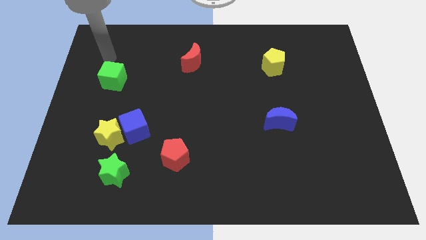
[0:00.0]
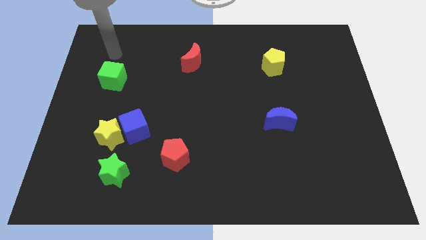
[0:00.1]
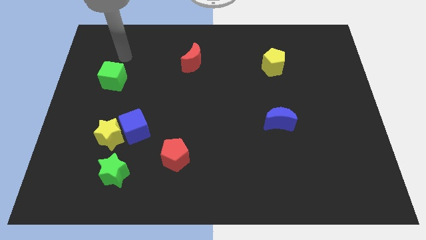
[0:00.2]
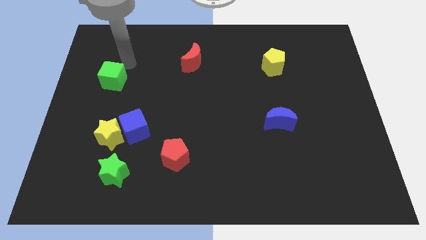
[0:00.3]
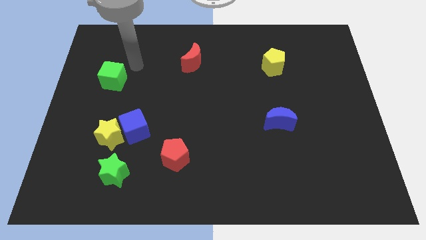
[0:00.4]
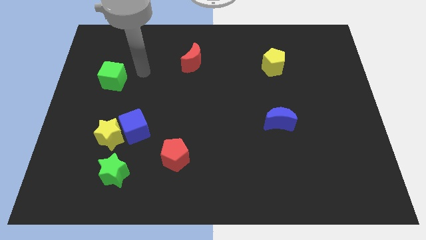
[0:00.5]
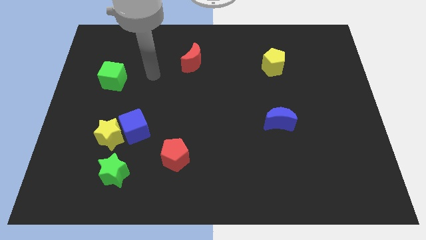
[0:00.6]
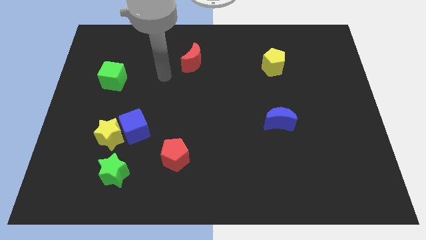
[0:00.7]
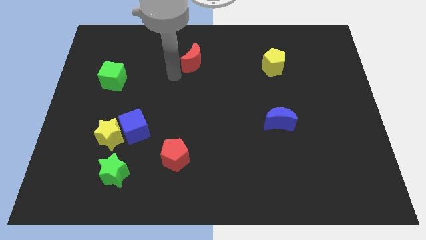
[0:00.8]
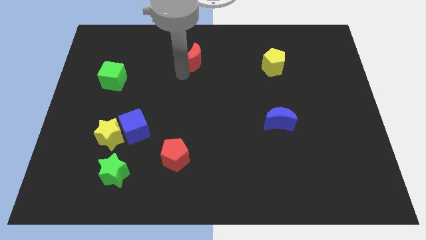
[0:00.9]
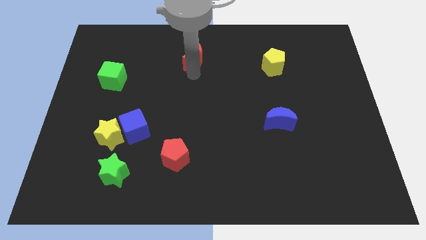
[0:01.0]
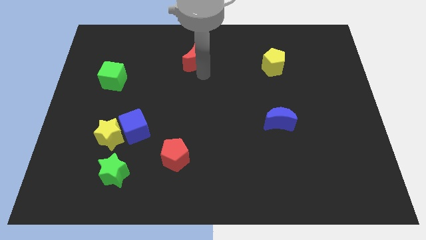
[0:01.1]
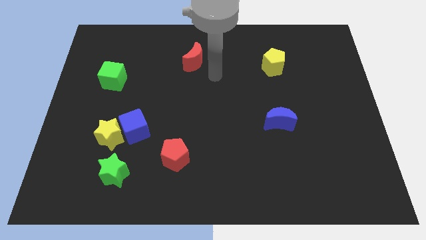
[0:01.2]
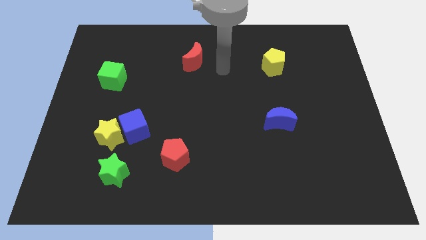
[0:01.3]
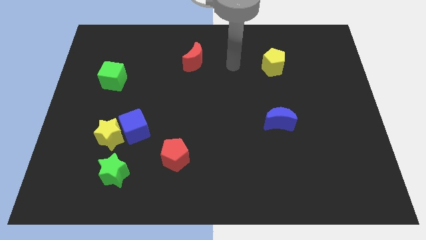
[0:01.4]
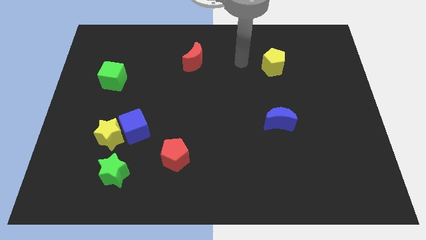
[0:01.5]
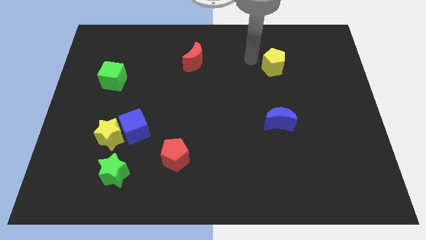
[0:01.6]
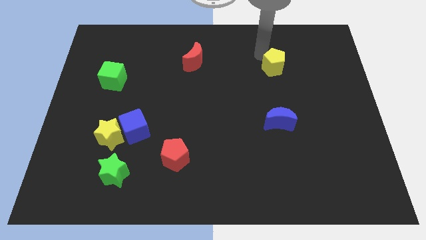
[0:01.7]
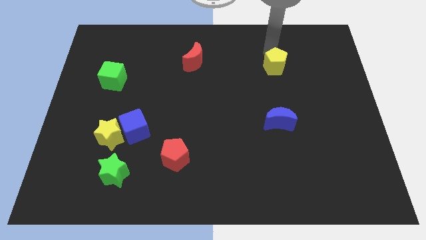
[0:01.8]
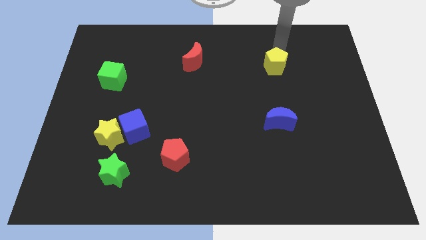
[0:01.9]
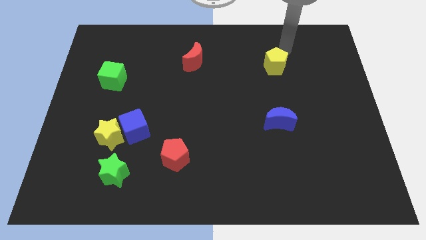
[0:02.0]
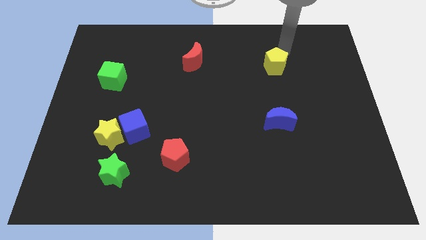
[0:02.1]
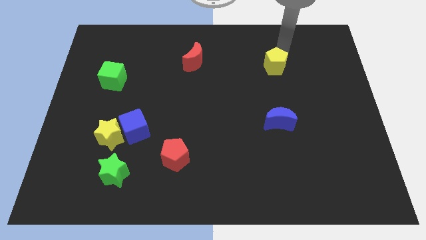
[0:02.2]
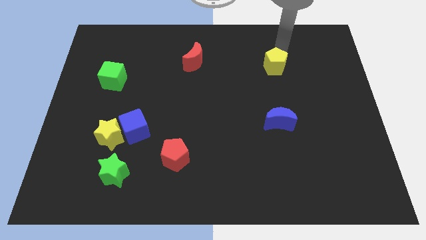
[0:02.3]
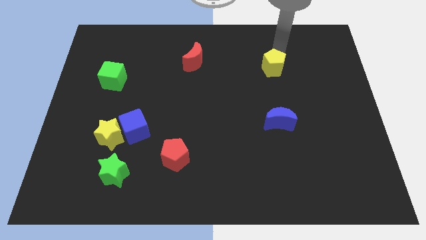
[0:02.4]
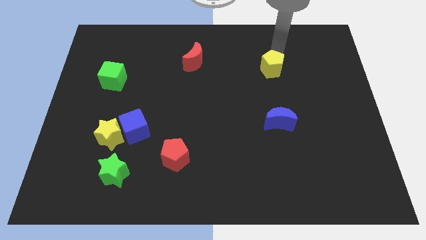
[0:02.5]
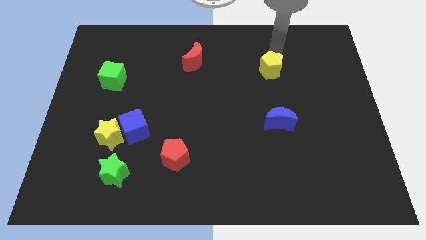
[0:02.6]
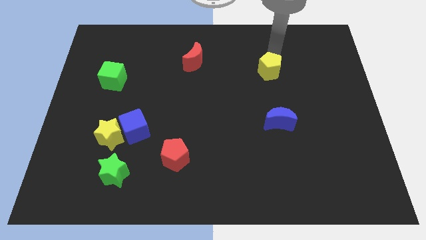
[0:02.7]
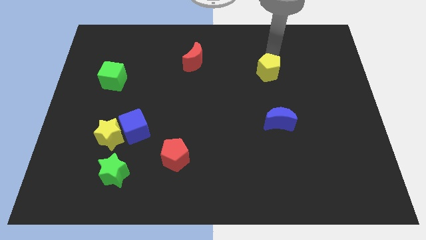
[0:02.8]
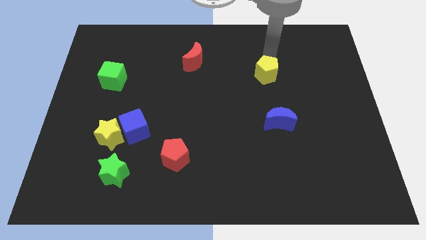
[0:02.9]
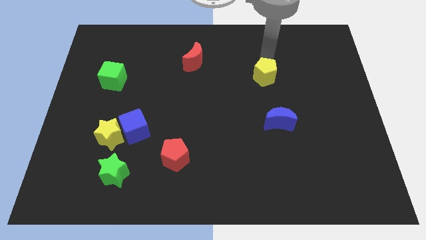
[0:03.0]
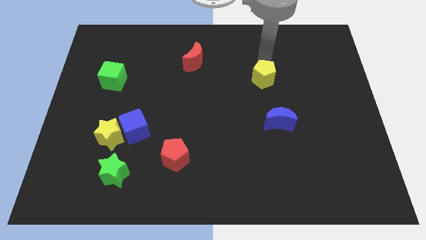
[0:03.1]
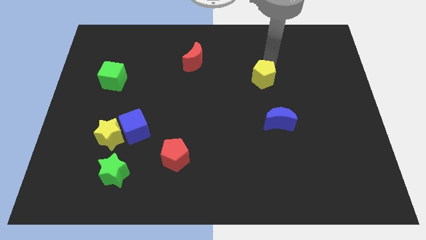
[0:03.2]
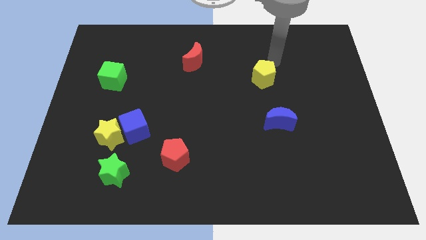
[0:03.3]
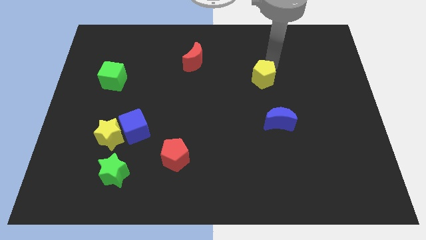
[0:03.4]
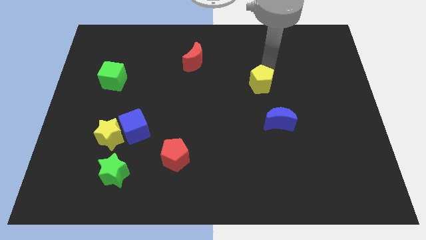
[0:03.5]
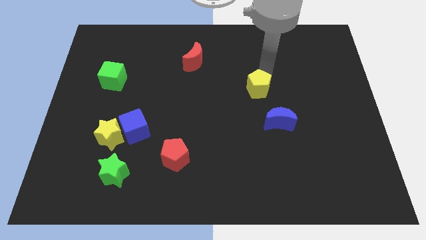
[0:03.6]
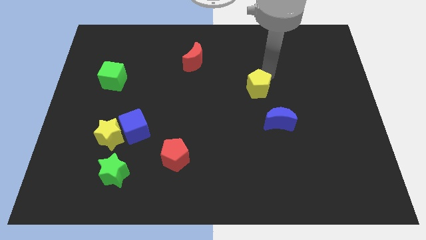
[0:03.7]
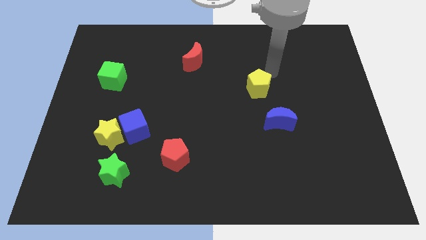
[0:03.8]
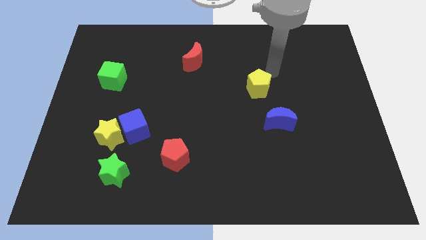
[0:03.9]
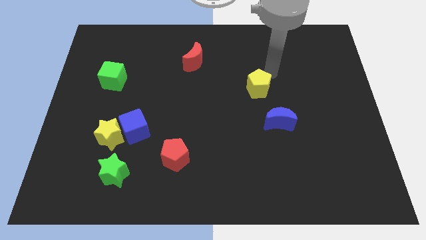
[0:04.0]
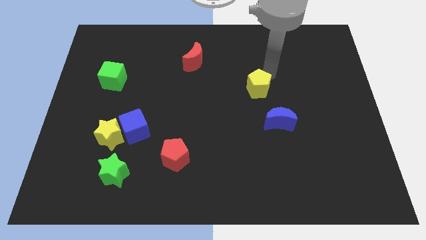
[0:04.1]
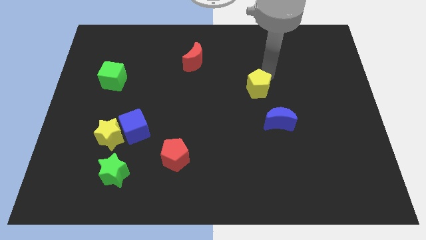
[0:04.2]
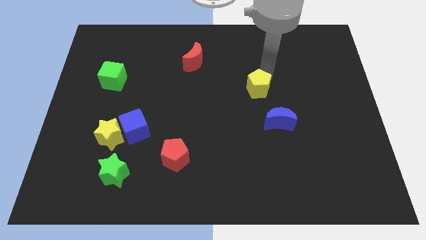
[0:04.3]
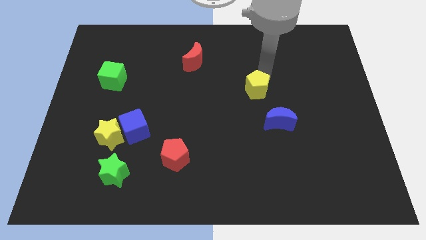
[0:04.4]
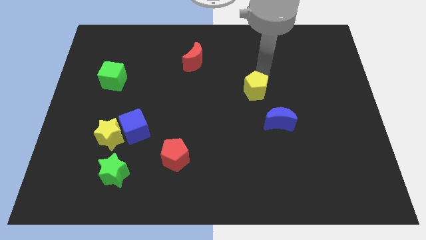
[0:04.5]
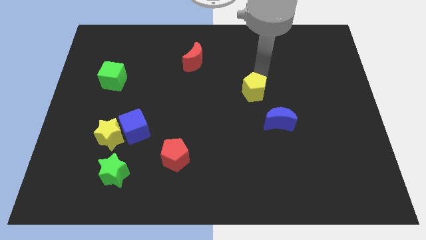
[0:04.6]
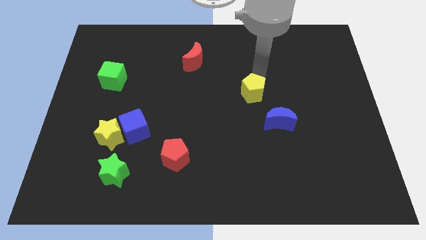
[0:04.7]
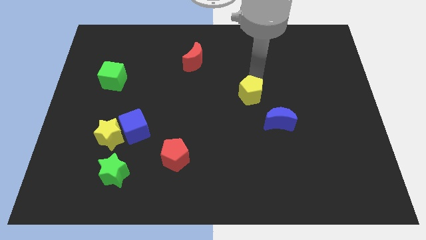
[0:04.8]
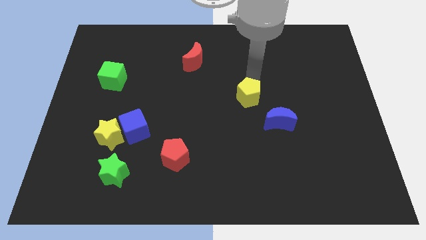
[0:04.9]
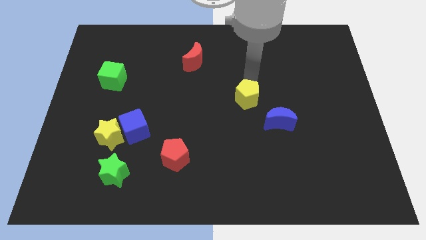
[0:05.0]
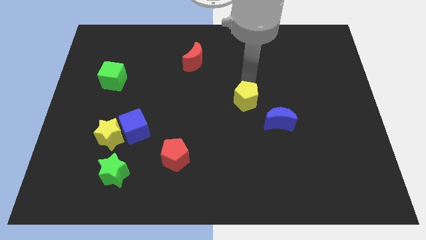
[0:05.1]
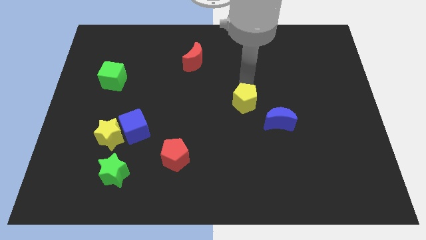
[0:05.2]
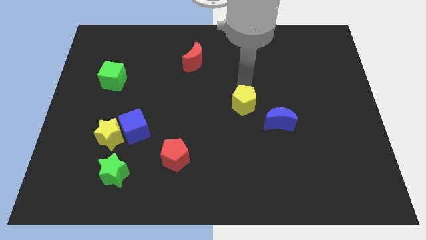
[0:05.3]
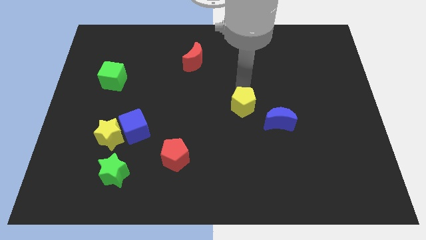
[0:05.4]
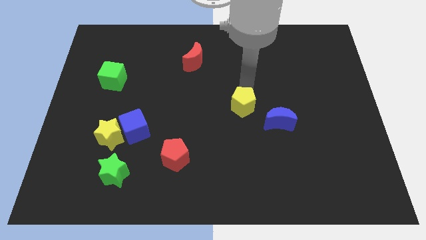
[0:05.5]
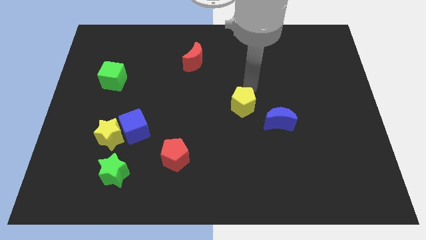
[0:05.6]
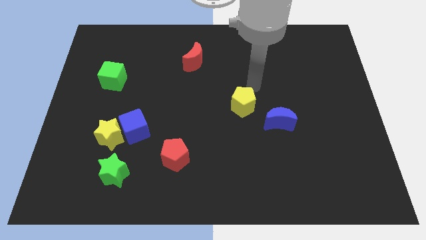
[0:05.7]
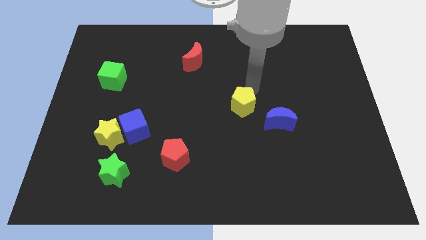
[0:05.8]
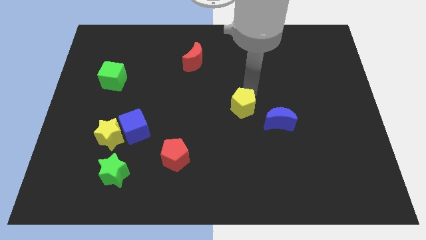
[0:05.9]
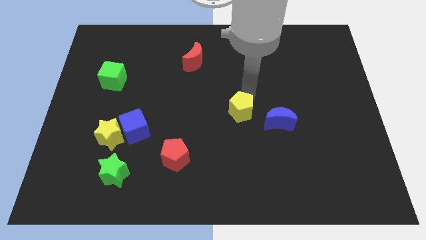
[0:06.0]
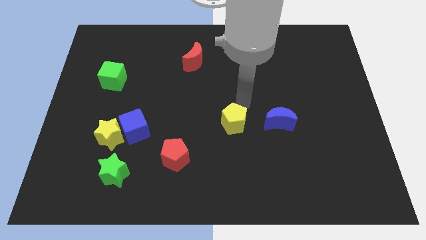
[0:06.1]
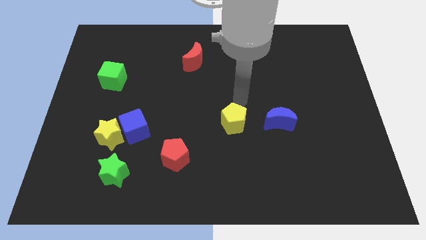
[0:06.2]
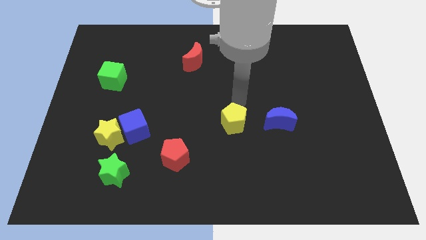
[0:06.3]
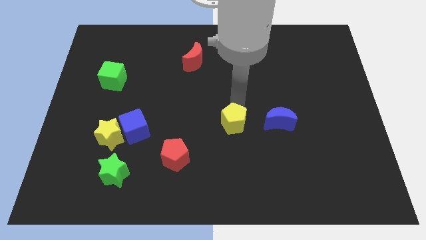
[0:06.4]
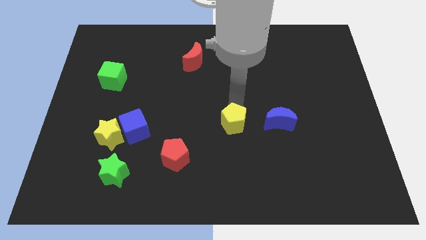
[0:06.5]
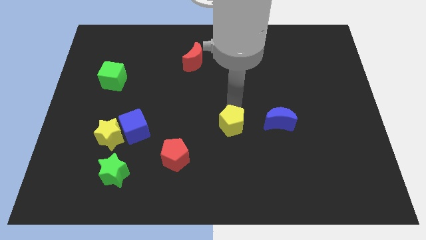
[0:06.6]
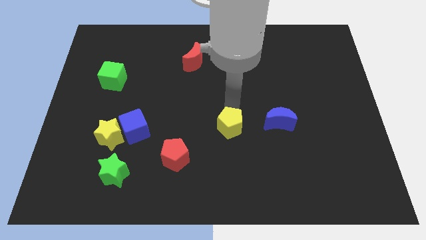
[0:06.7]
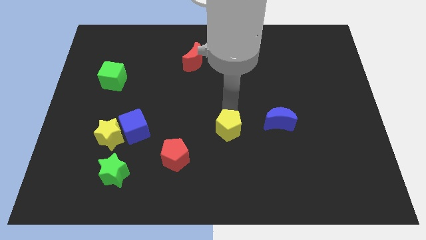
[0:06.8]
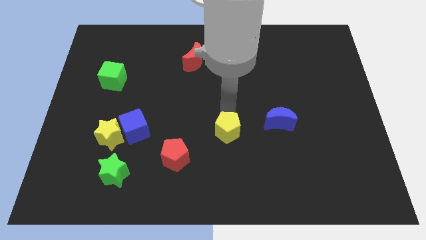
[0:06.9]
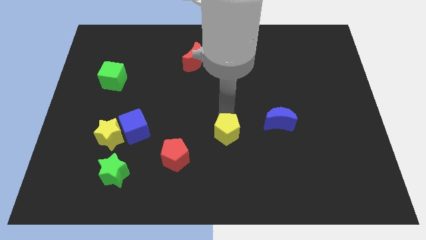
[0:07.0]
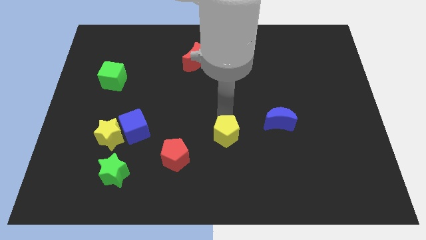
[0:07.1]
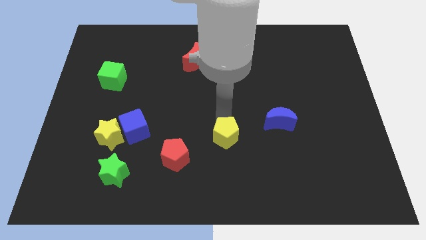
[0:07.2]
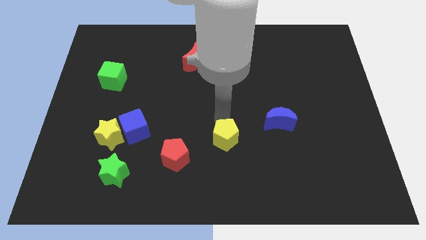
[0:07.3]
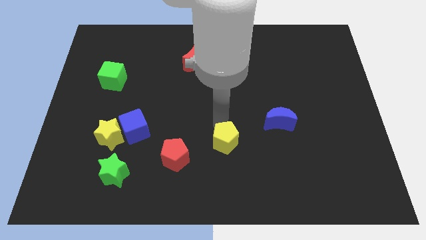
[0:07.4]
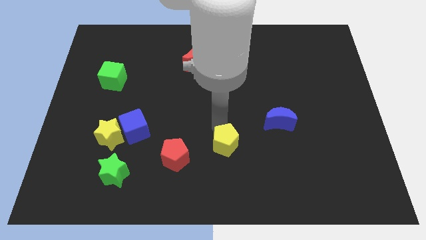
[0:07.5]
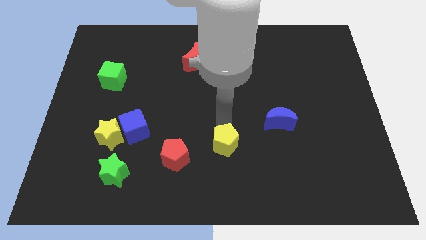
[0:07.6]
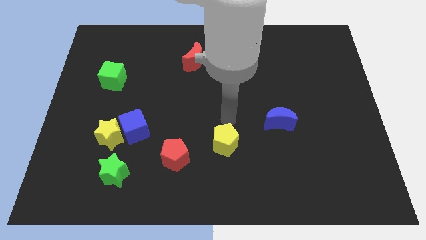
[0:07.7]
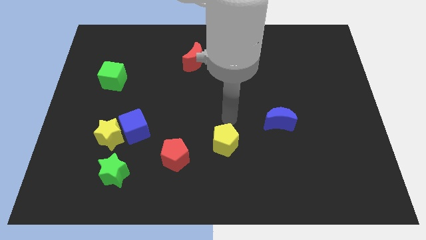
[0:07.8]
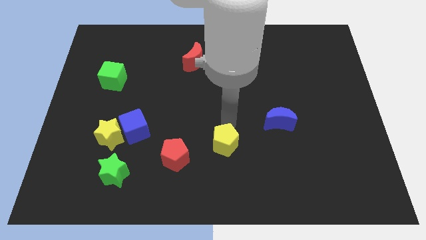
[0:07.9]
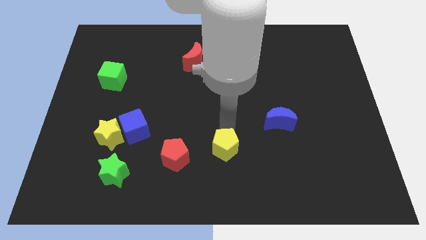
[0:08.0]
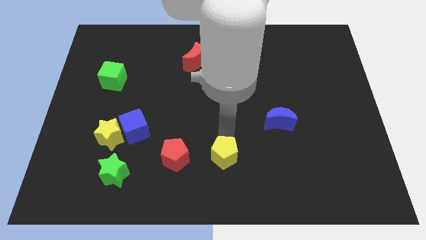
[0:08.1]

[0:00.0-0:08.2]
move the yellow pentagon to the bottom side
